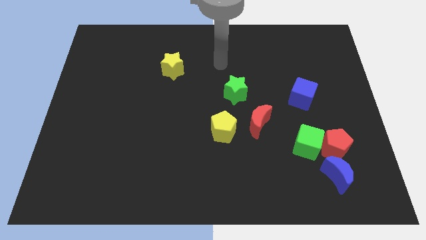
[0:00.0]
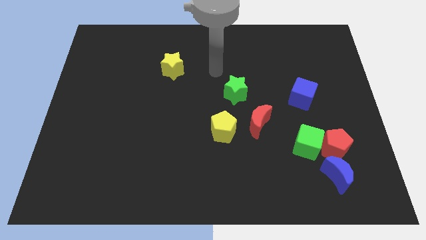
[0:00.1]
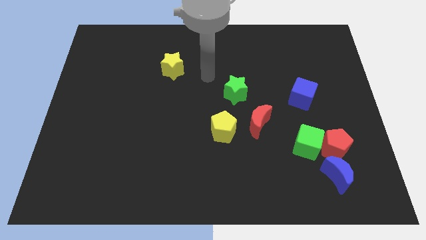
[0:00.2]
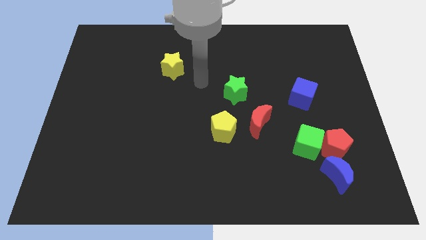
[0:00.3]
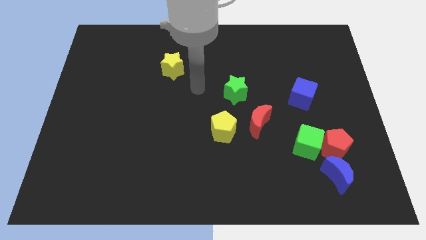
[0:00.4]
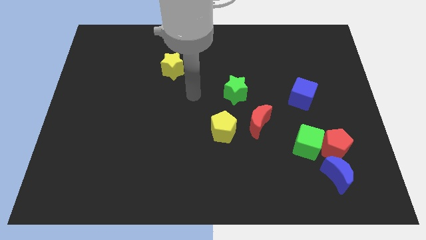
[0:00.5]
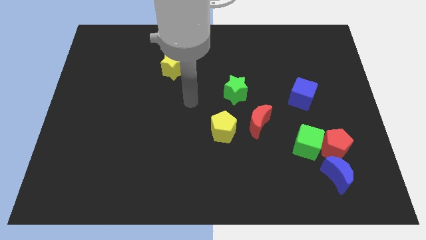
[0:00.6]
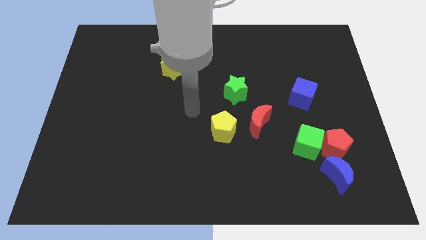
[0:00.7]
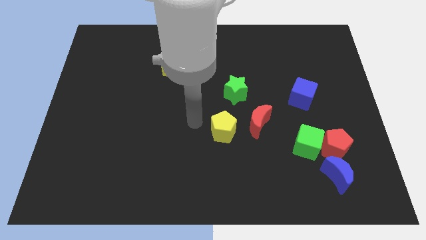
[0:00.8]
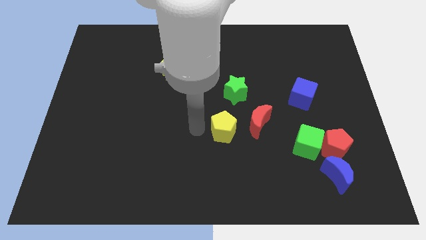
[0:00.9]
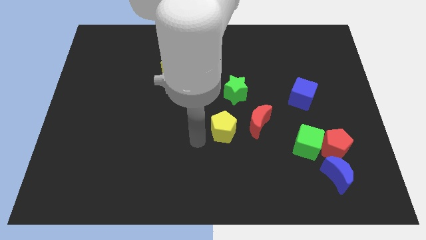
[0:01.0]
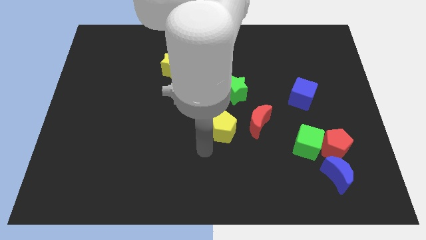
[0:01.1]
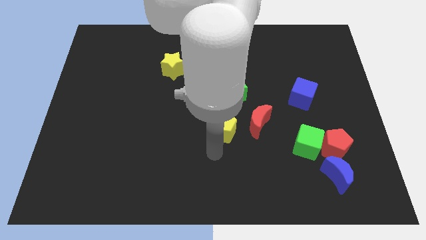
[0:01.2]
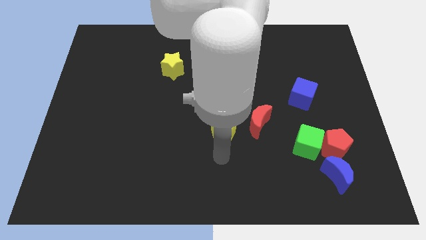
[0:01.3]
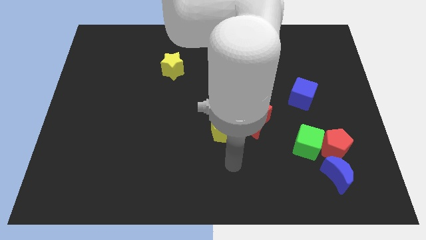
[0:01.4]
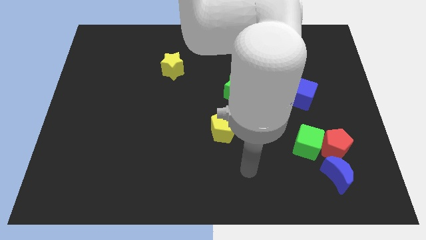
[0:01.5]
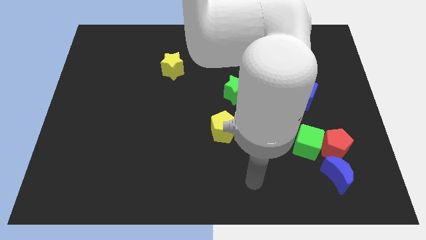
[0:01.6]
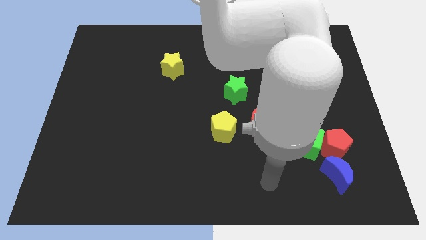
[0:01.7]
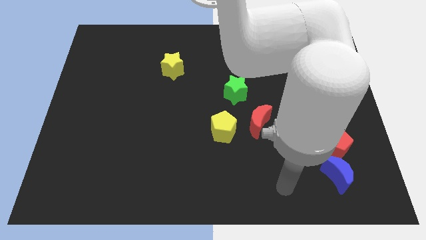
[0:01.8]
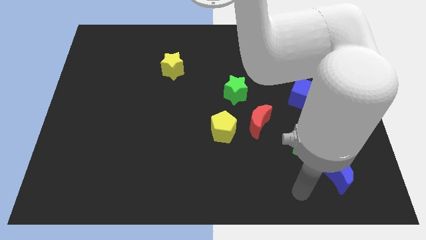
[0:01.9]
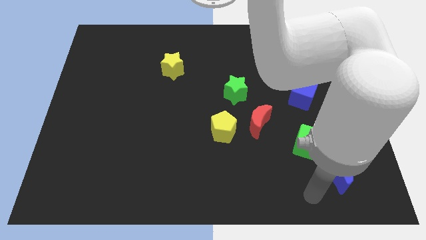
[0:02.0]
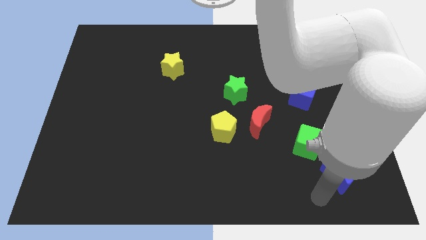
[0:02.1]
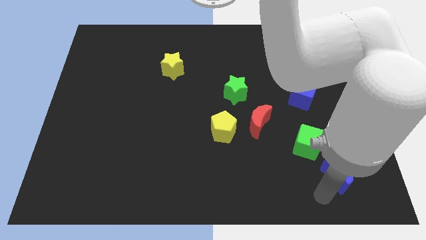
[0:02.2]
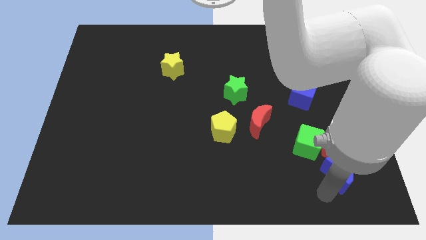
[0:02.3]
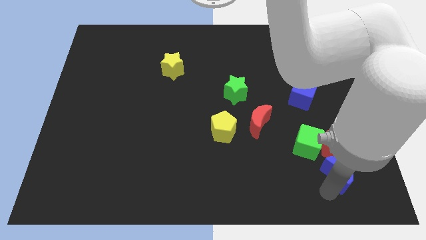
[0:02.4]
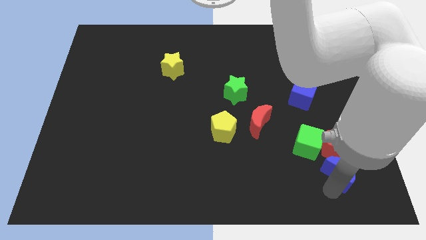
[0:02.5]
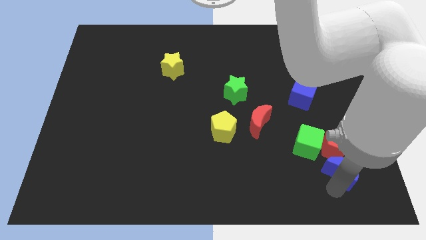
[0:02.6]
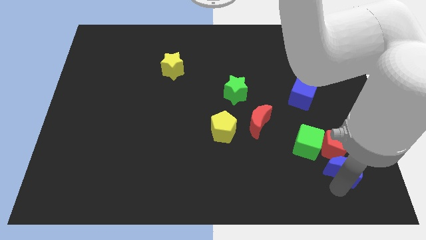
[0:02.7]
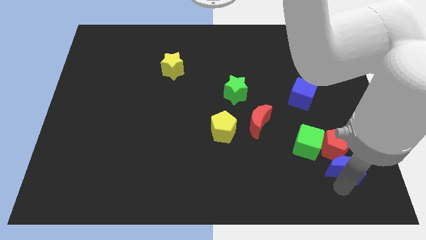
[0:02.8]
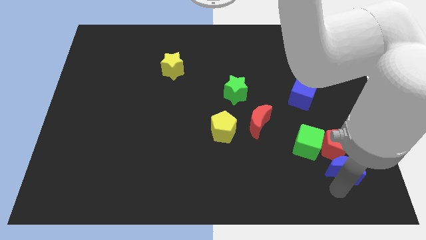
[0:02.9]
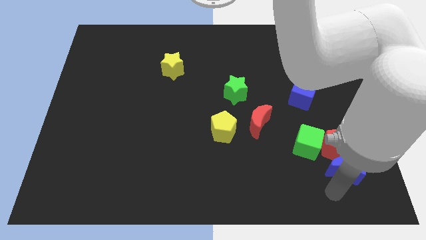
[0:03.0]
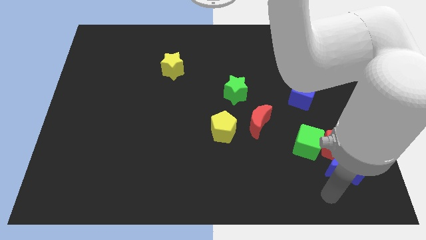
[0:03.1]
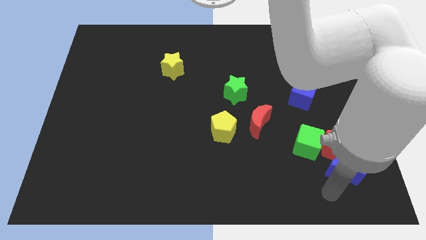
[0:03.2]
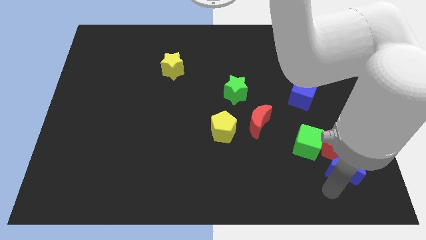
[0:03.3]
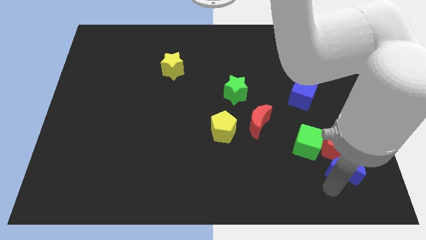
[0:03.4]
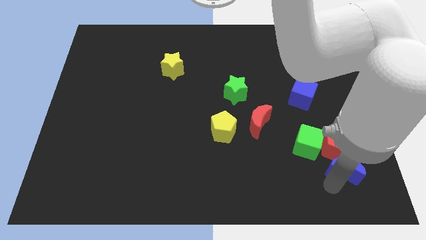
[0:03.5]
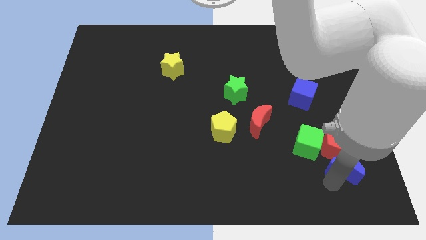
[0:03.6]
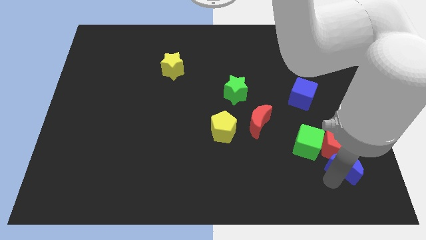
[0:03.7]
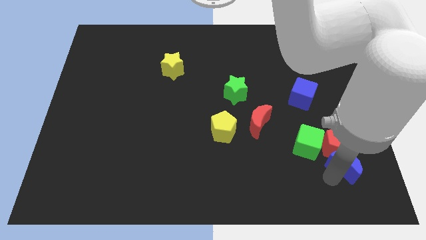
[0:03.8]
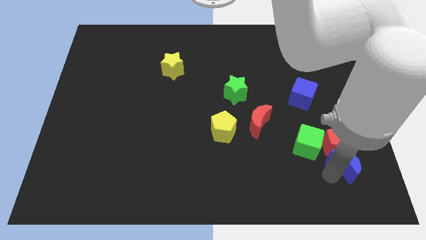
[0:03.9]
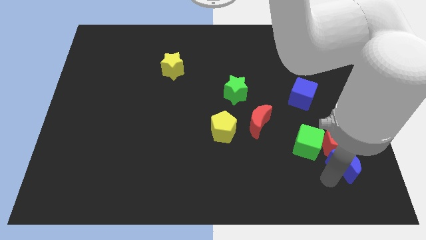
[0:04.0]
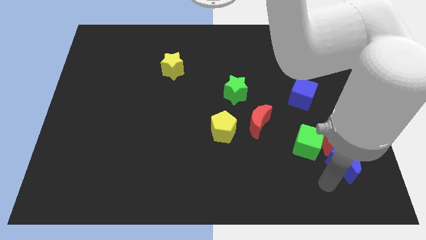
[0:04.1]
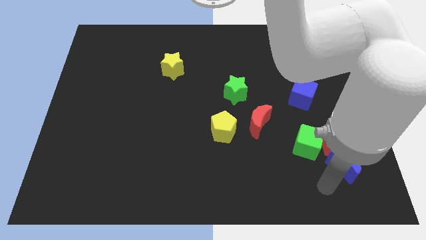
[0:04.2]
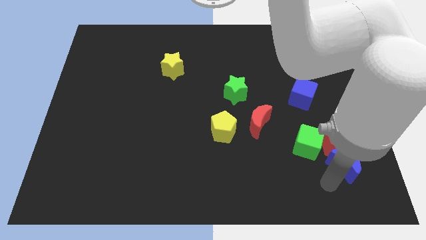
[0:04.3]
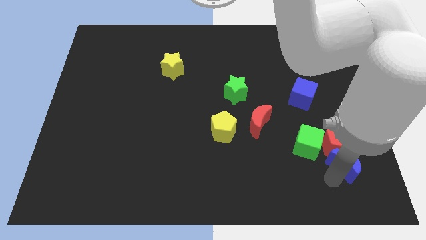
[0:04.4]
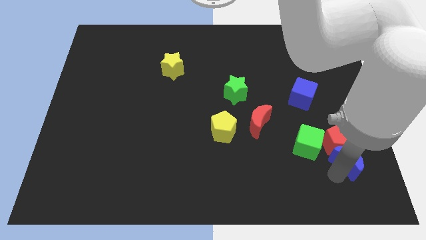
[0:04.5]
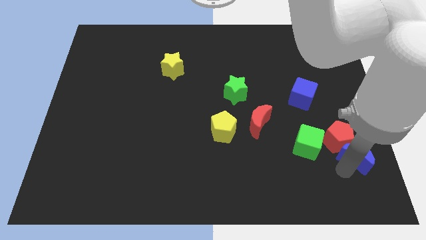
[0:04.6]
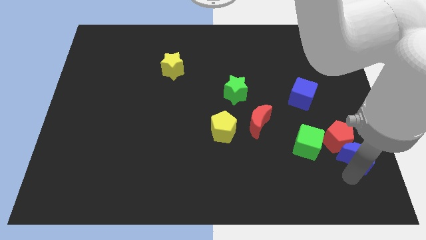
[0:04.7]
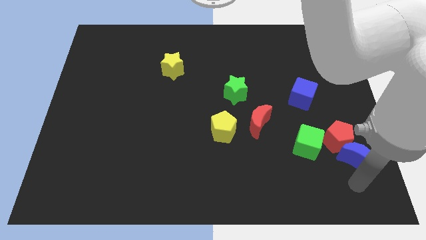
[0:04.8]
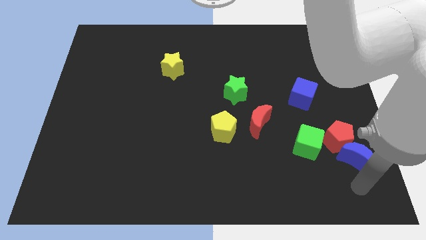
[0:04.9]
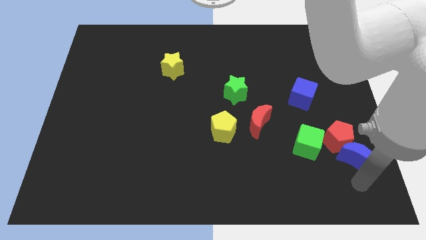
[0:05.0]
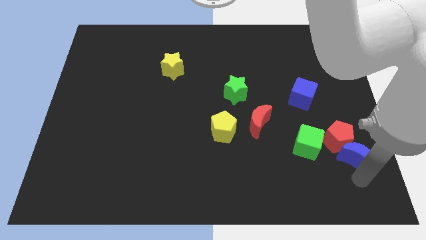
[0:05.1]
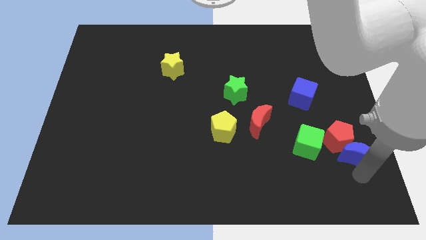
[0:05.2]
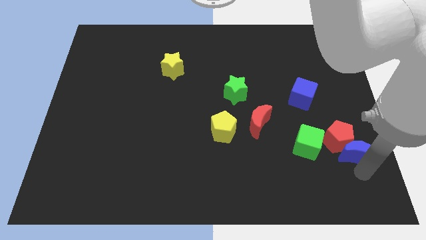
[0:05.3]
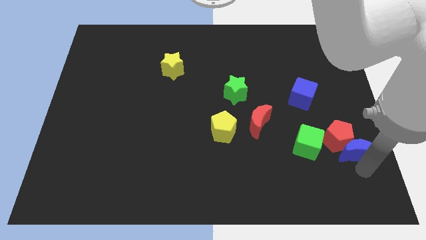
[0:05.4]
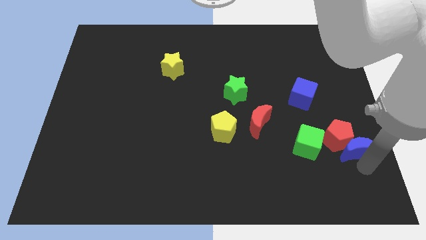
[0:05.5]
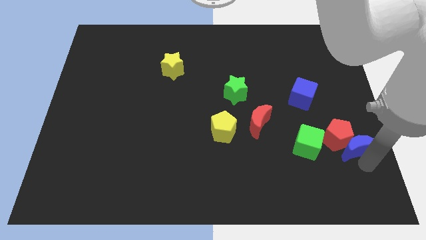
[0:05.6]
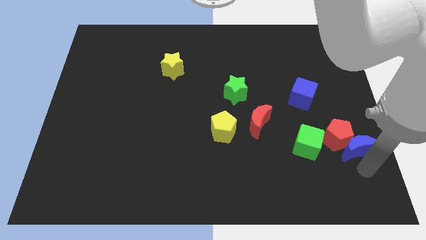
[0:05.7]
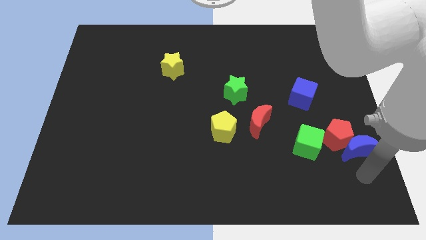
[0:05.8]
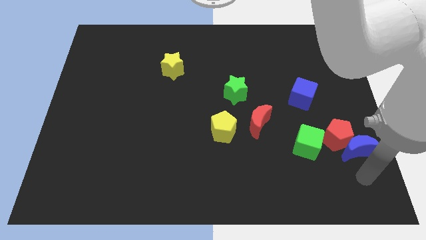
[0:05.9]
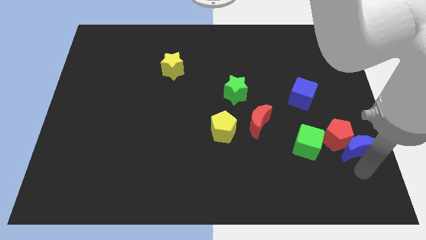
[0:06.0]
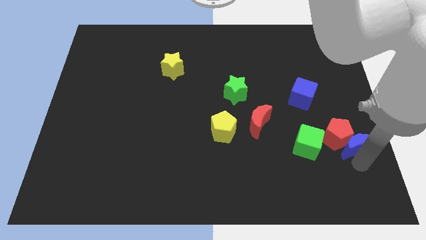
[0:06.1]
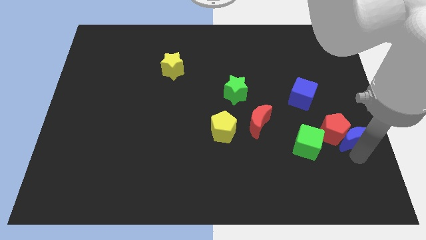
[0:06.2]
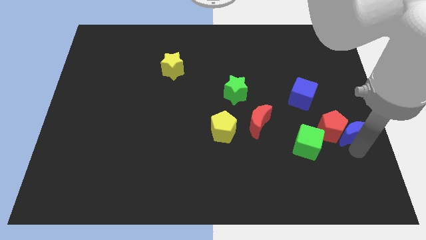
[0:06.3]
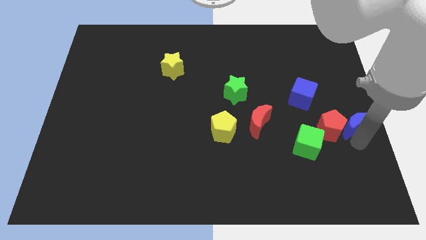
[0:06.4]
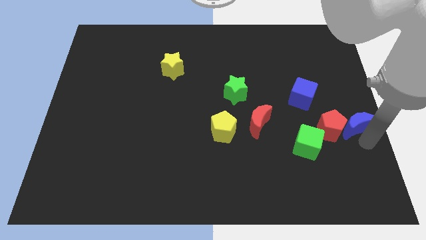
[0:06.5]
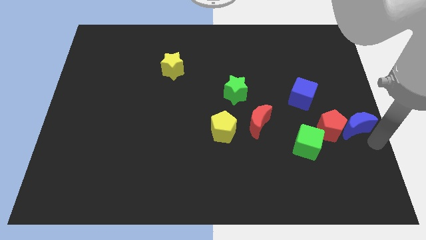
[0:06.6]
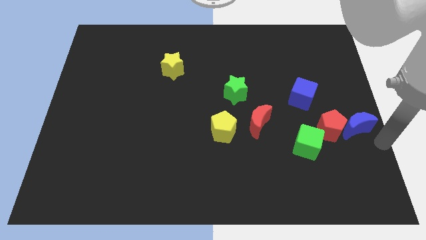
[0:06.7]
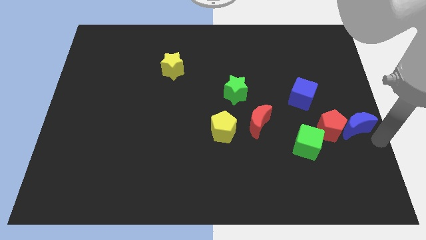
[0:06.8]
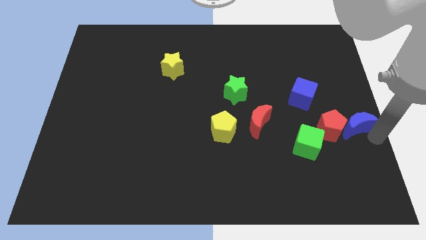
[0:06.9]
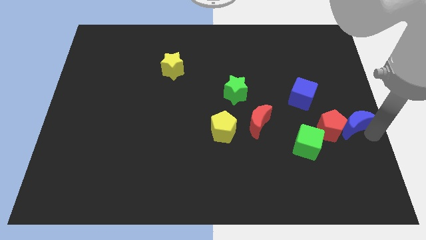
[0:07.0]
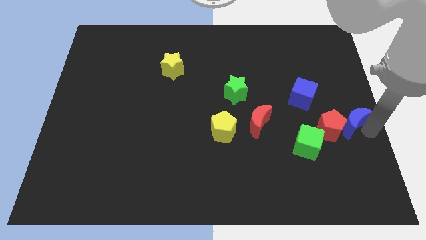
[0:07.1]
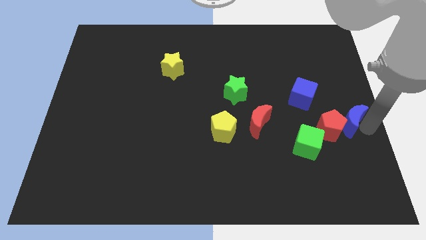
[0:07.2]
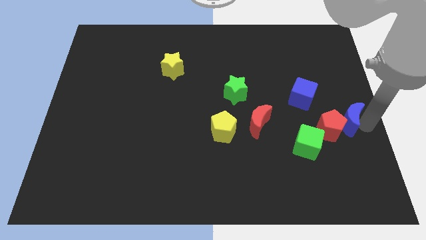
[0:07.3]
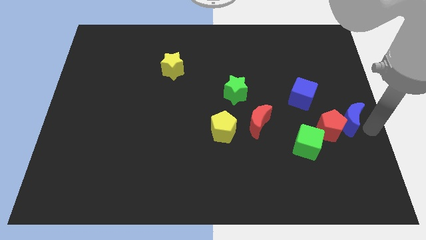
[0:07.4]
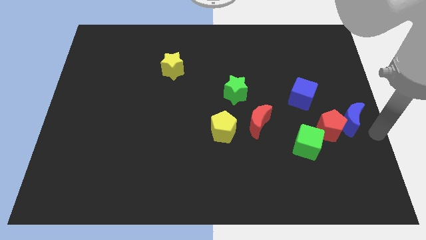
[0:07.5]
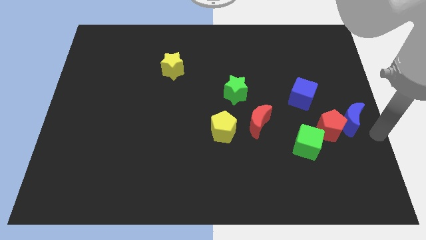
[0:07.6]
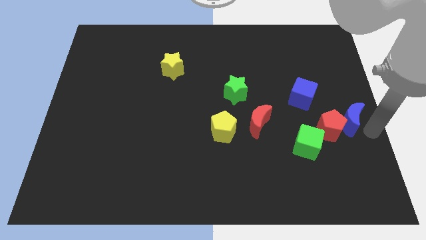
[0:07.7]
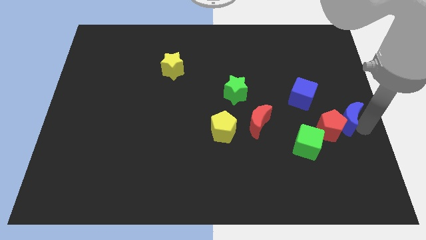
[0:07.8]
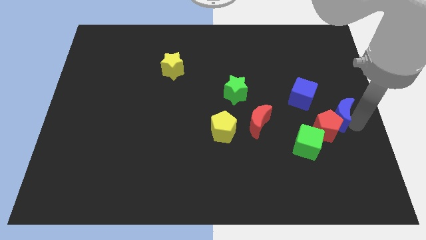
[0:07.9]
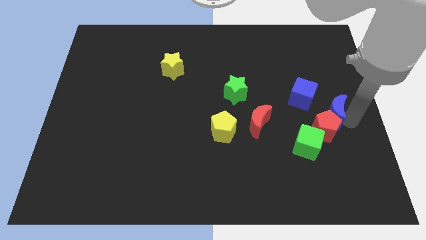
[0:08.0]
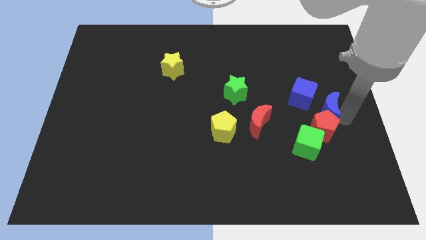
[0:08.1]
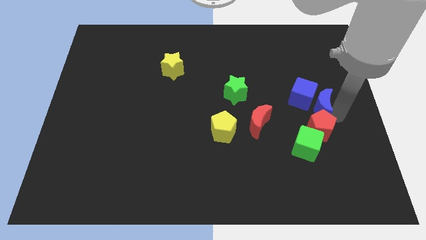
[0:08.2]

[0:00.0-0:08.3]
push the blue moon next to the blue cube
